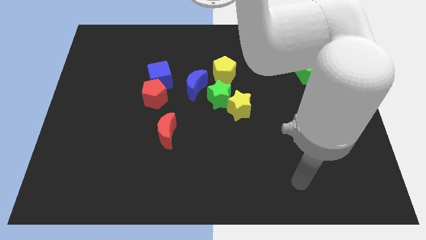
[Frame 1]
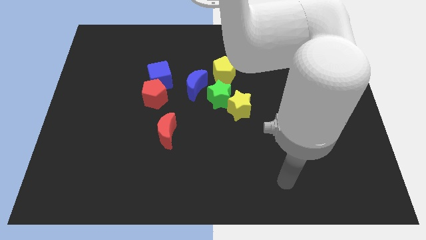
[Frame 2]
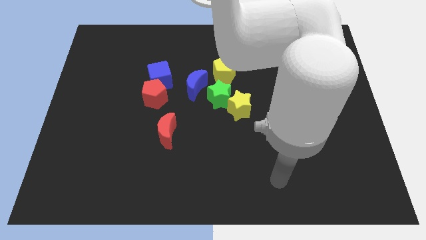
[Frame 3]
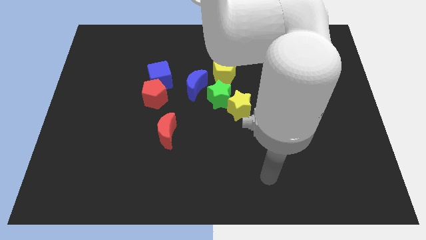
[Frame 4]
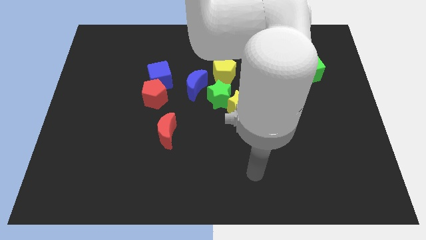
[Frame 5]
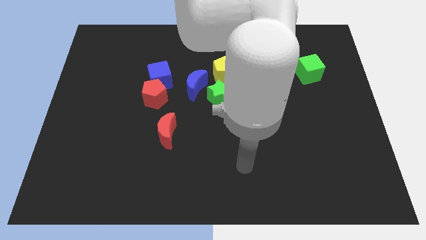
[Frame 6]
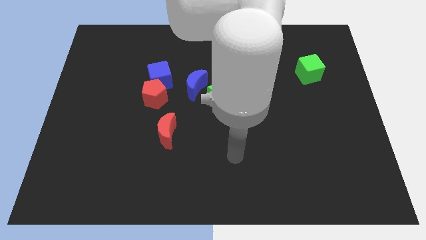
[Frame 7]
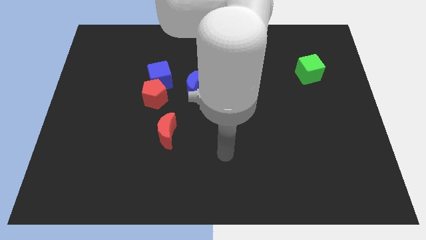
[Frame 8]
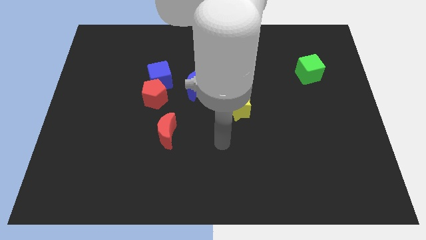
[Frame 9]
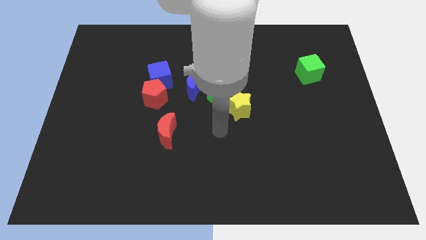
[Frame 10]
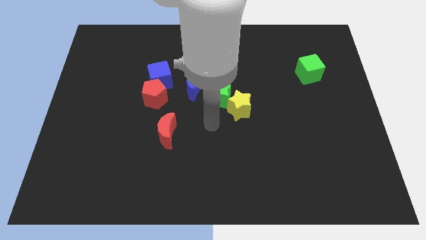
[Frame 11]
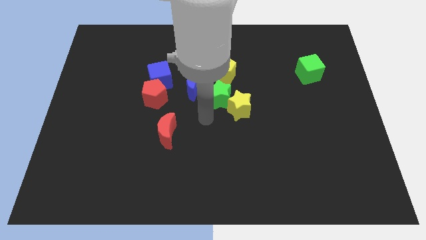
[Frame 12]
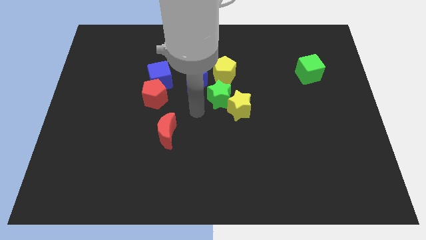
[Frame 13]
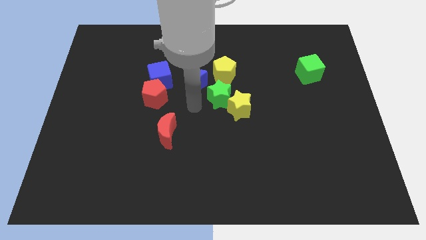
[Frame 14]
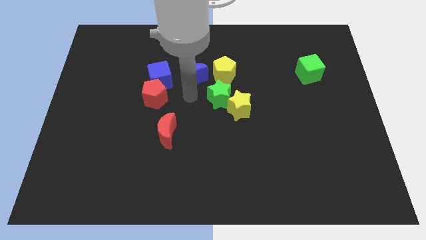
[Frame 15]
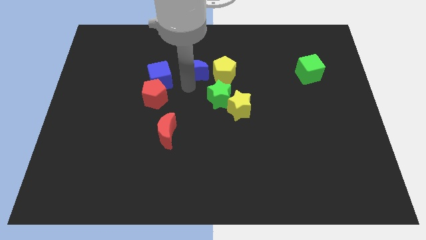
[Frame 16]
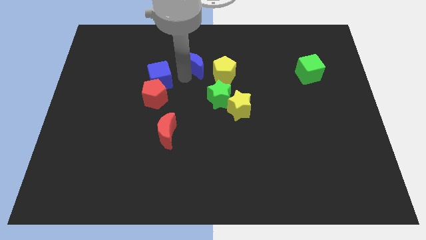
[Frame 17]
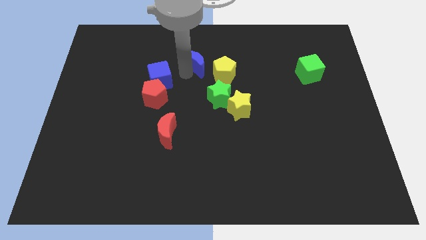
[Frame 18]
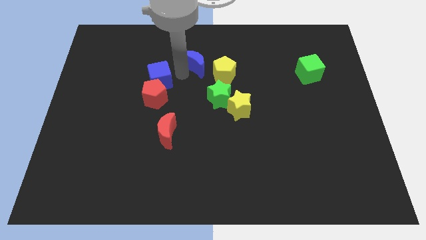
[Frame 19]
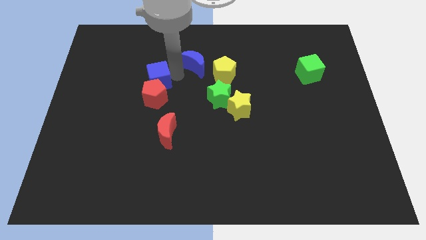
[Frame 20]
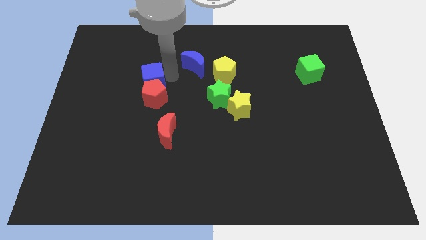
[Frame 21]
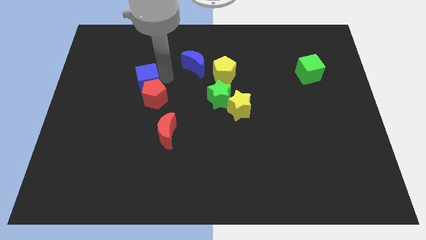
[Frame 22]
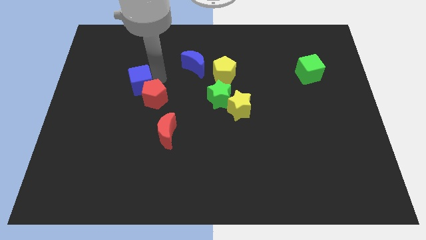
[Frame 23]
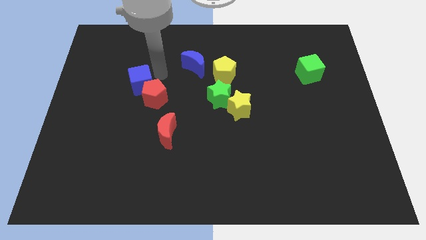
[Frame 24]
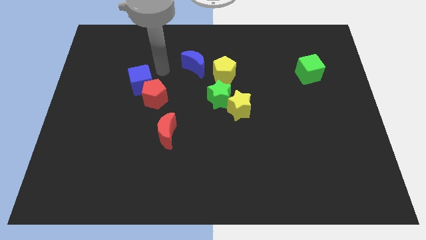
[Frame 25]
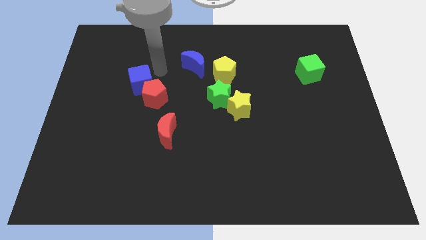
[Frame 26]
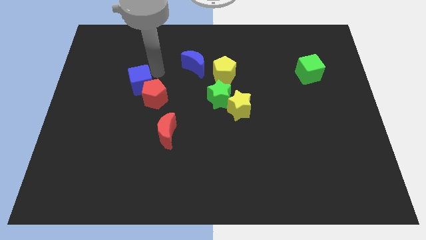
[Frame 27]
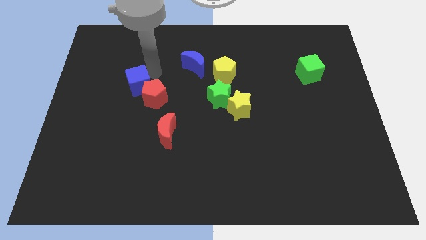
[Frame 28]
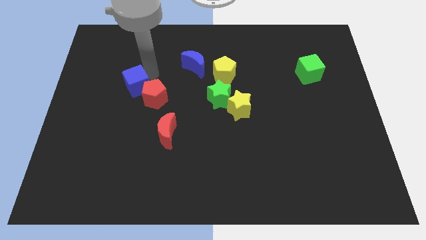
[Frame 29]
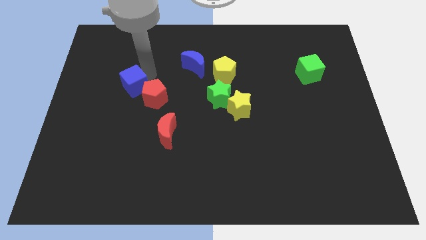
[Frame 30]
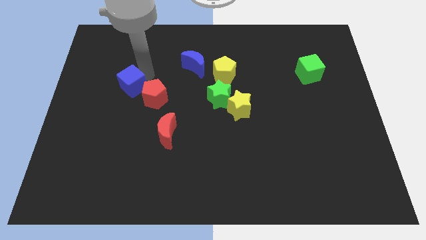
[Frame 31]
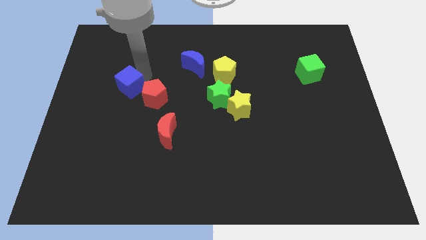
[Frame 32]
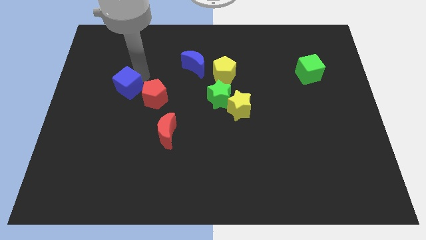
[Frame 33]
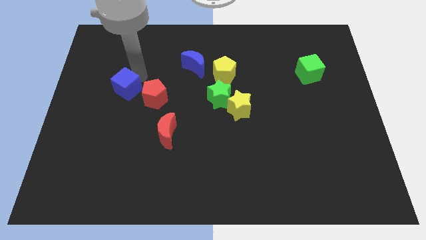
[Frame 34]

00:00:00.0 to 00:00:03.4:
move the blue cube a bit downwards and then left

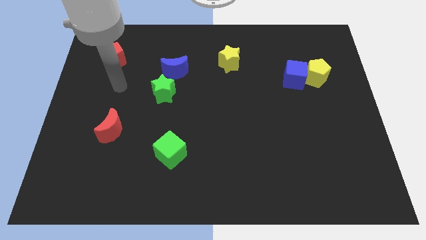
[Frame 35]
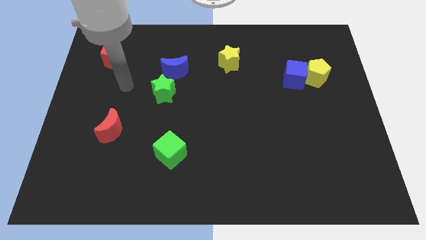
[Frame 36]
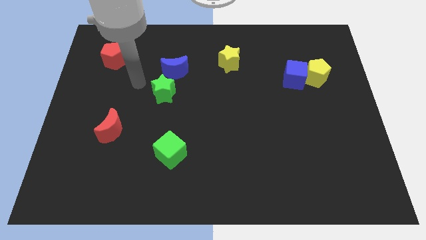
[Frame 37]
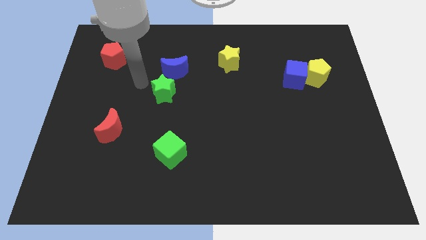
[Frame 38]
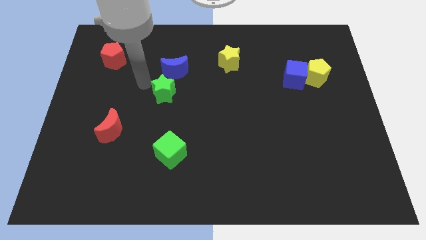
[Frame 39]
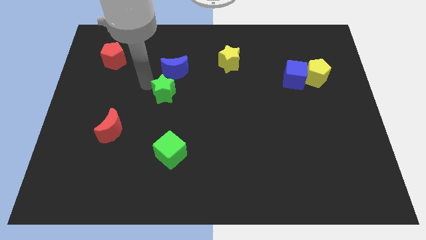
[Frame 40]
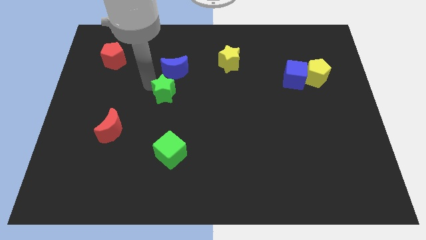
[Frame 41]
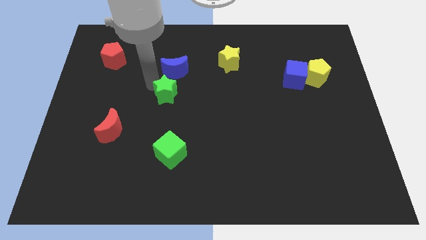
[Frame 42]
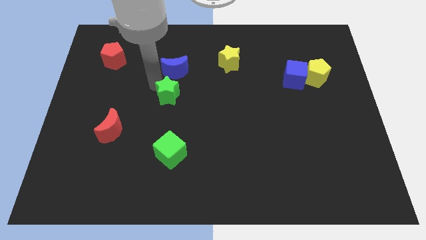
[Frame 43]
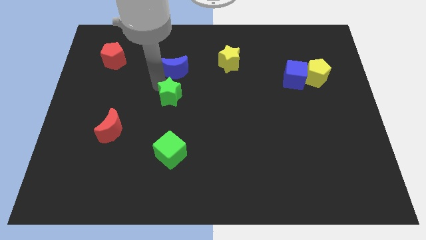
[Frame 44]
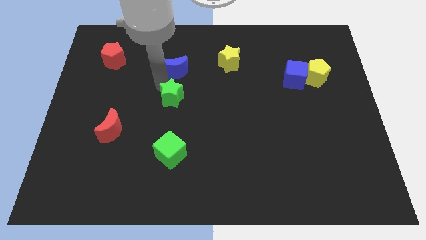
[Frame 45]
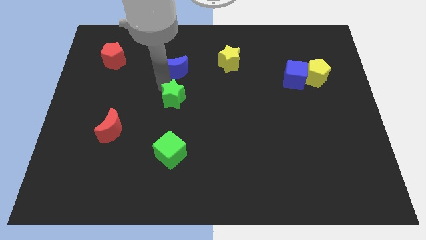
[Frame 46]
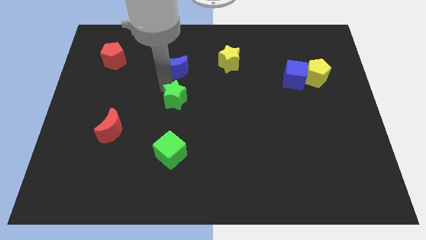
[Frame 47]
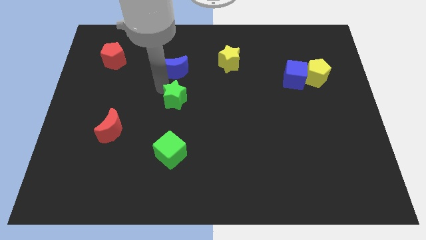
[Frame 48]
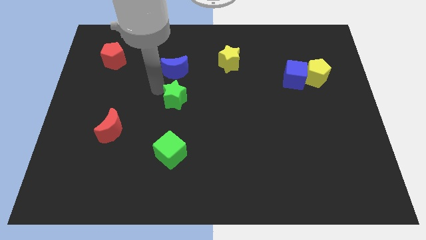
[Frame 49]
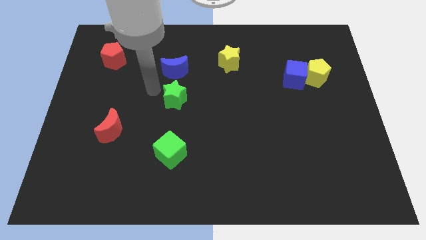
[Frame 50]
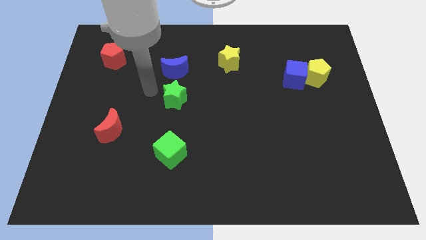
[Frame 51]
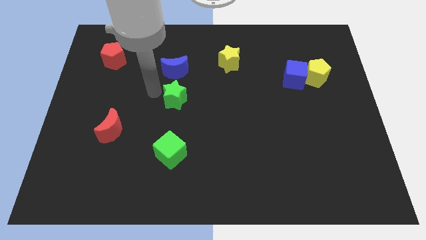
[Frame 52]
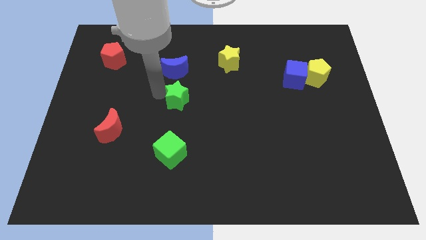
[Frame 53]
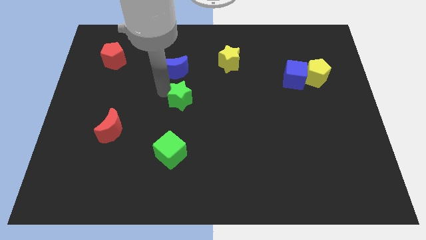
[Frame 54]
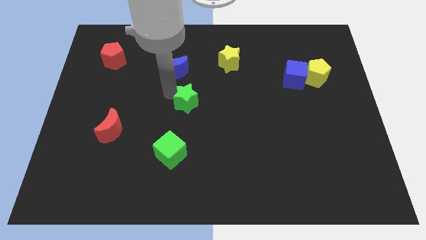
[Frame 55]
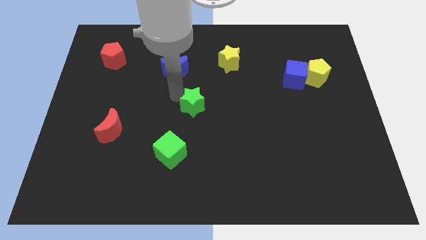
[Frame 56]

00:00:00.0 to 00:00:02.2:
move the green star downwards and to the right diagonally somewhat

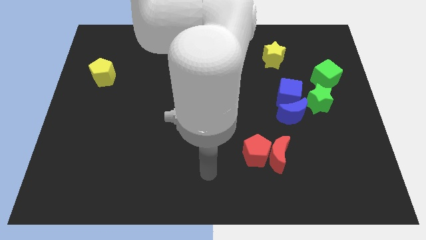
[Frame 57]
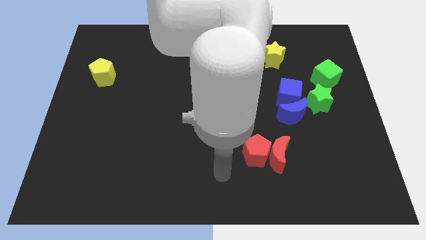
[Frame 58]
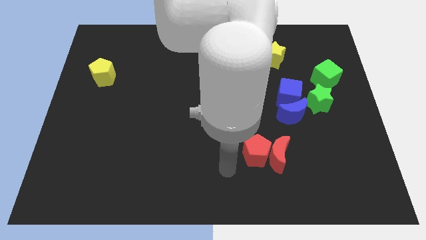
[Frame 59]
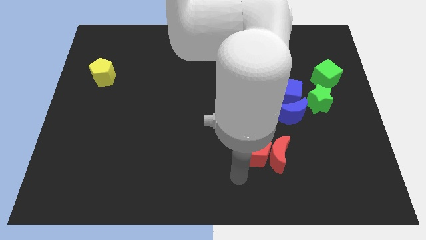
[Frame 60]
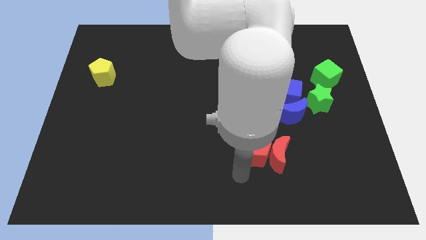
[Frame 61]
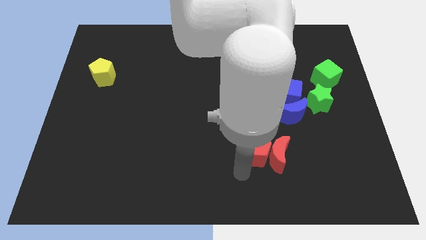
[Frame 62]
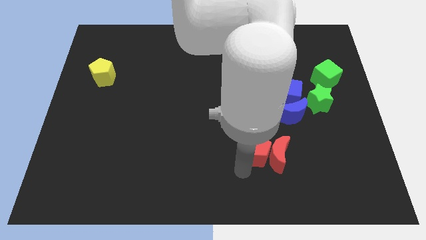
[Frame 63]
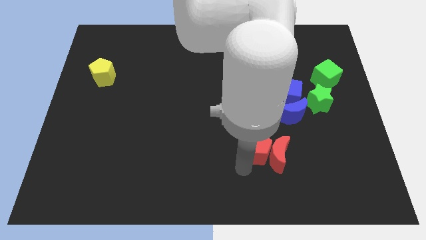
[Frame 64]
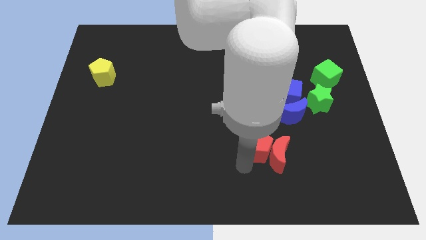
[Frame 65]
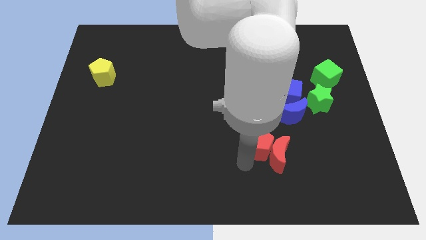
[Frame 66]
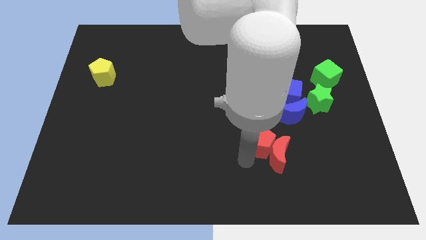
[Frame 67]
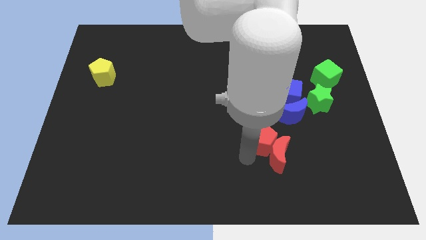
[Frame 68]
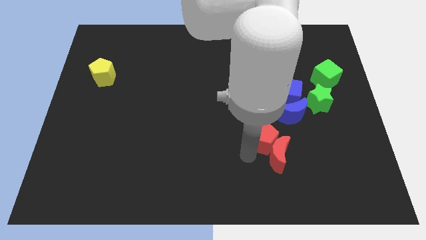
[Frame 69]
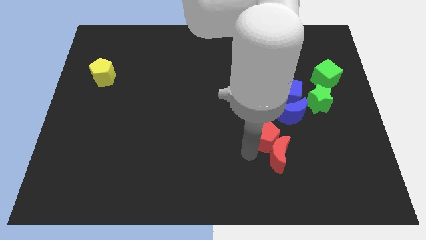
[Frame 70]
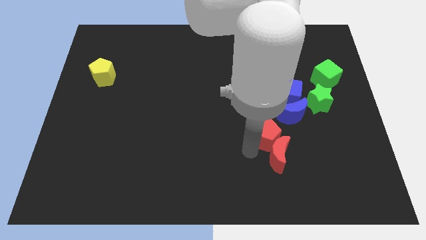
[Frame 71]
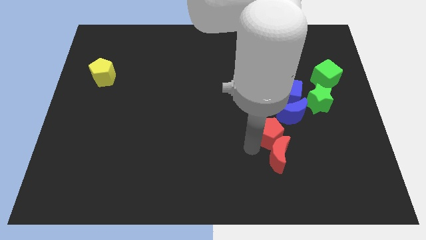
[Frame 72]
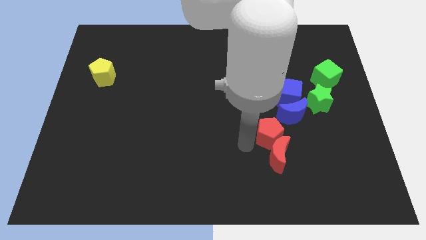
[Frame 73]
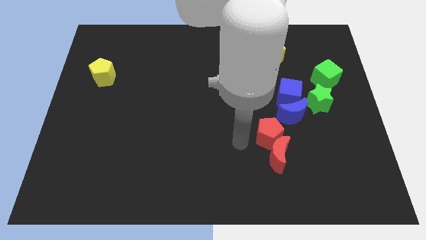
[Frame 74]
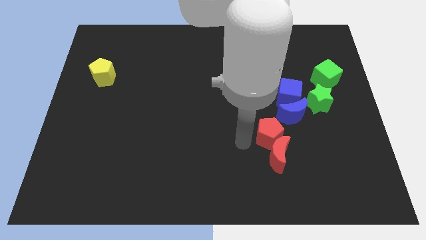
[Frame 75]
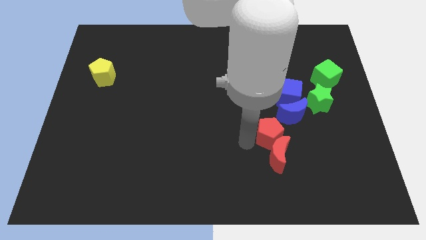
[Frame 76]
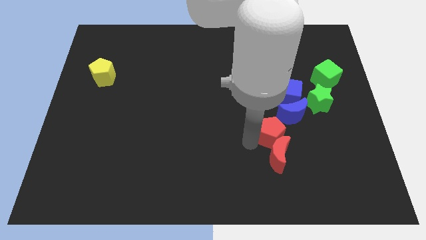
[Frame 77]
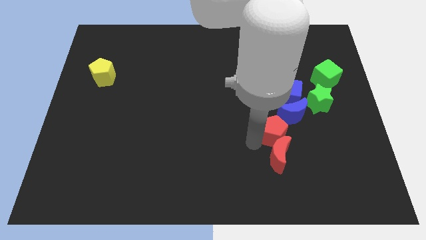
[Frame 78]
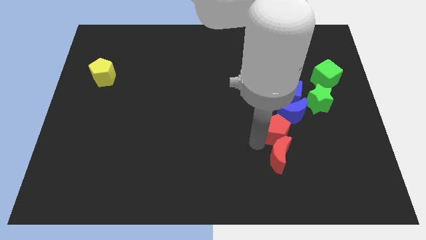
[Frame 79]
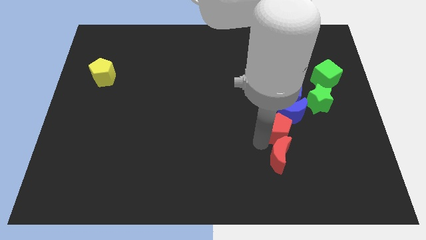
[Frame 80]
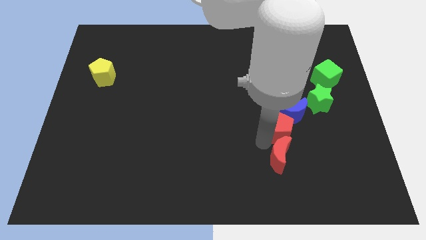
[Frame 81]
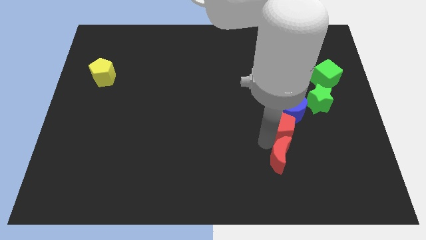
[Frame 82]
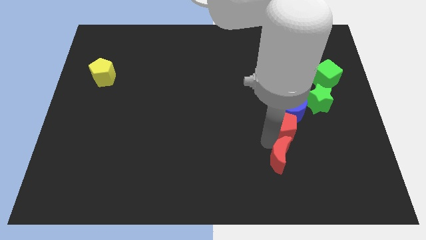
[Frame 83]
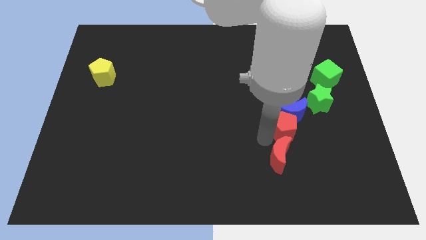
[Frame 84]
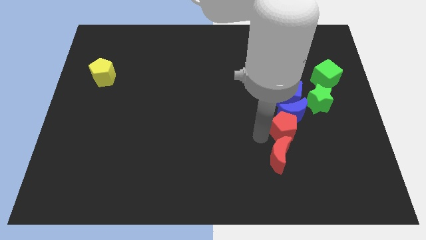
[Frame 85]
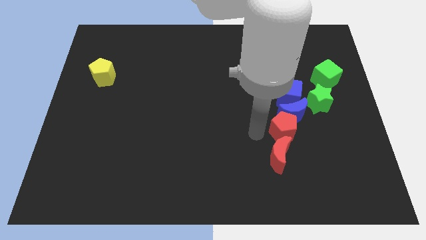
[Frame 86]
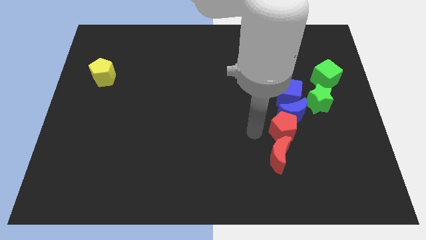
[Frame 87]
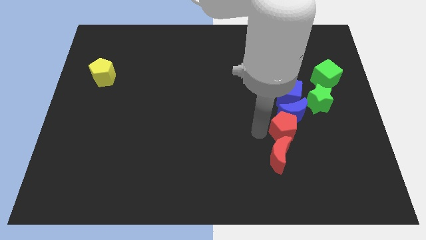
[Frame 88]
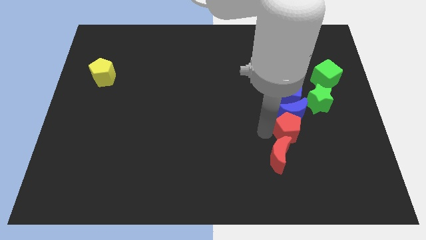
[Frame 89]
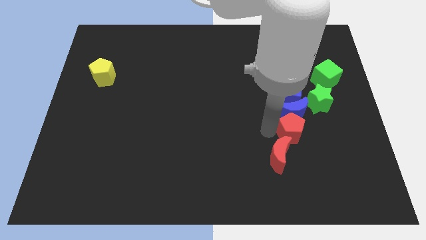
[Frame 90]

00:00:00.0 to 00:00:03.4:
slightly slide the red pentagon to the right
